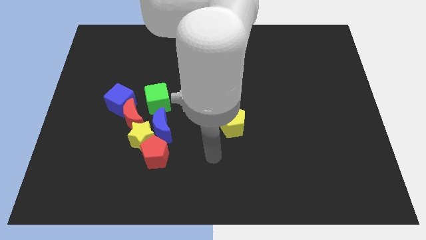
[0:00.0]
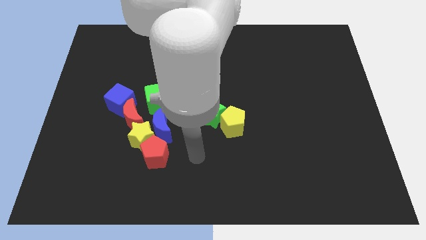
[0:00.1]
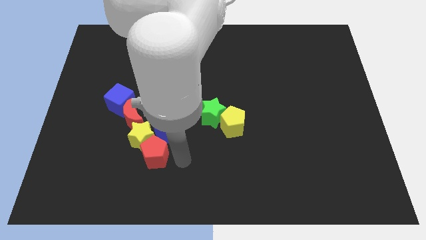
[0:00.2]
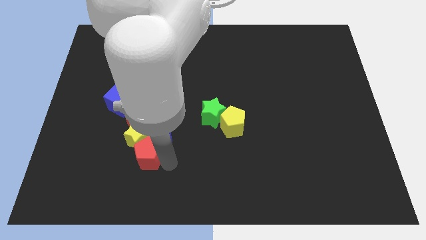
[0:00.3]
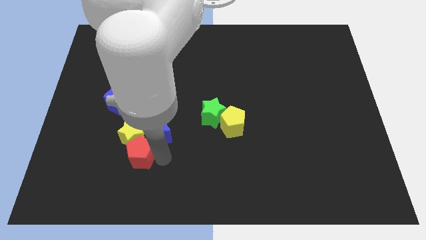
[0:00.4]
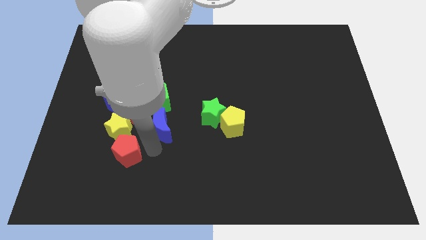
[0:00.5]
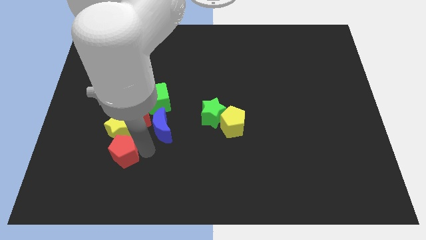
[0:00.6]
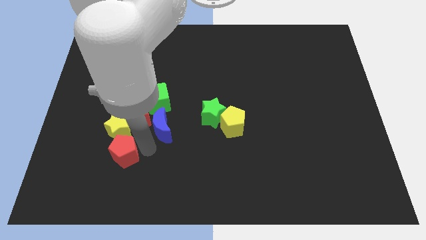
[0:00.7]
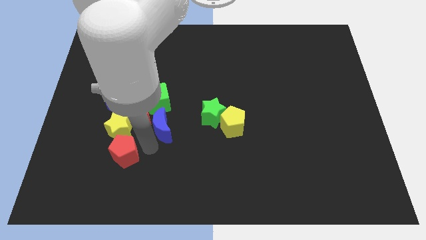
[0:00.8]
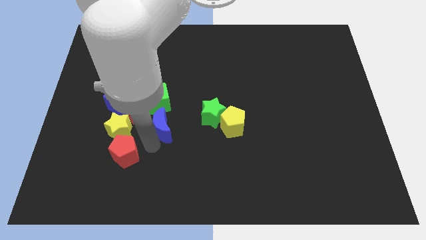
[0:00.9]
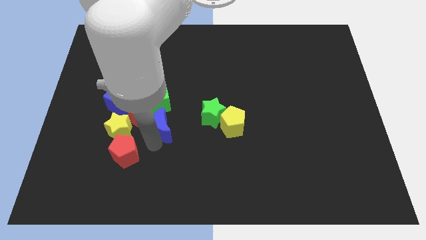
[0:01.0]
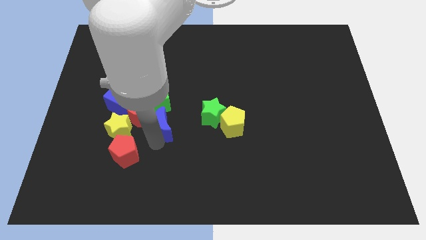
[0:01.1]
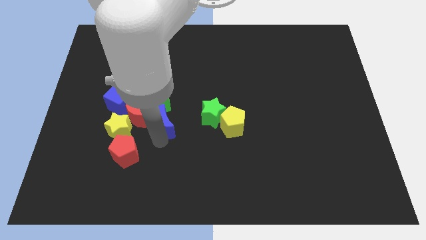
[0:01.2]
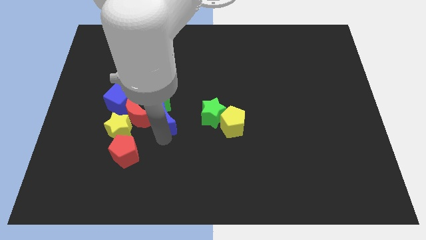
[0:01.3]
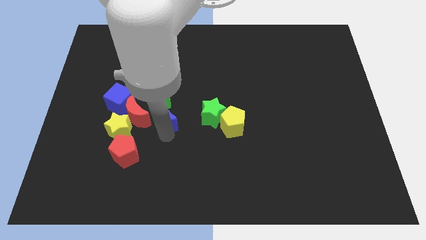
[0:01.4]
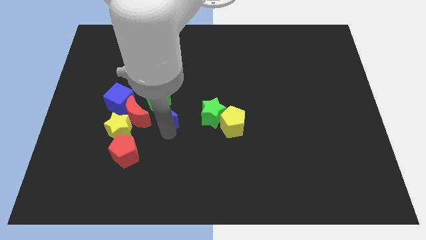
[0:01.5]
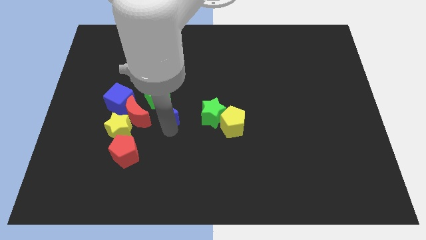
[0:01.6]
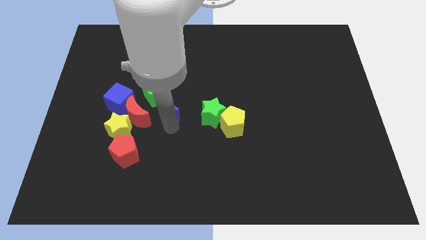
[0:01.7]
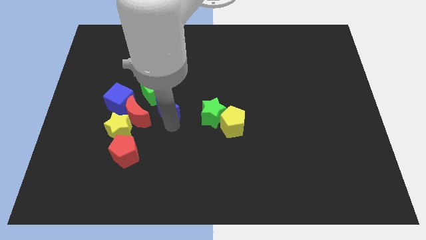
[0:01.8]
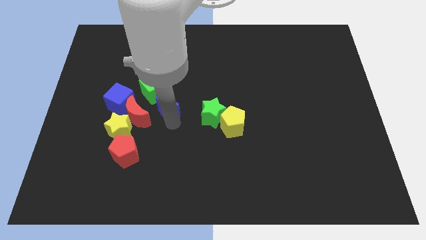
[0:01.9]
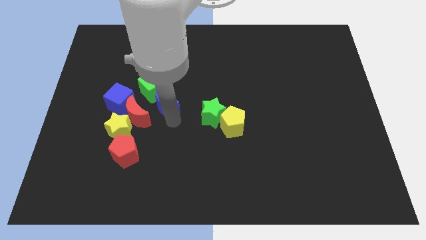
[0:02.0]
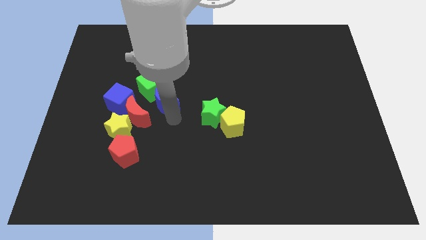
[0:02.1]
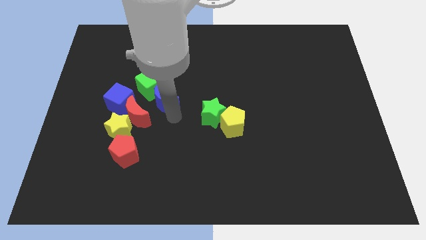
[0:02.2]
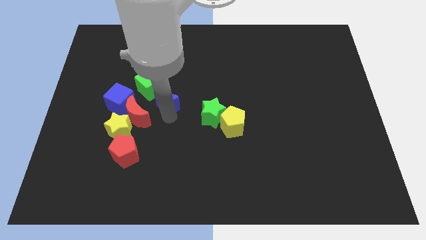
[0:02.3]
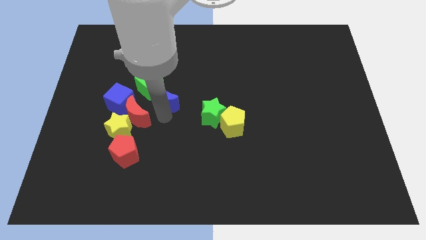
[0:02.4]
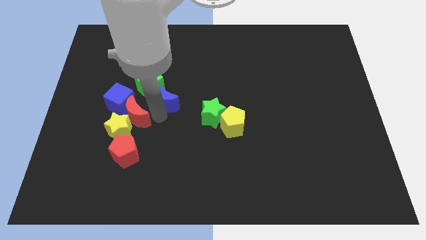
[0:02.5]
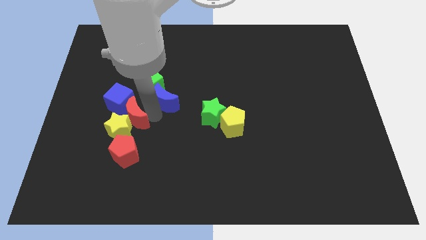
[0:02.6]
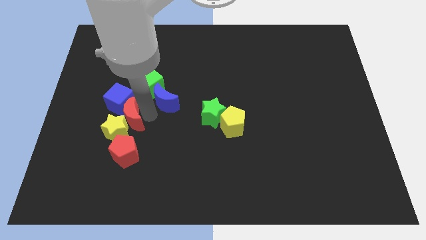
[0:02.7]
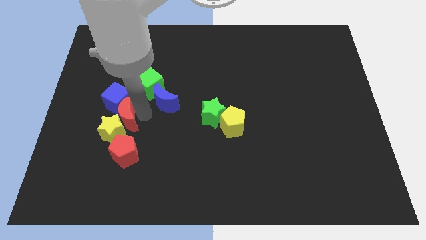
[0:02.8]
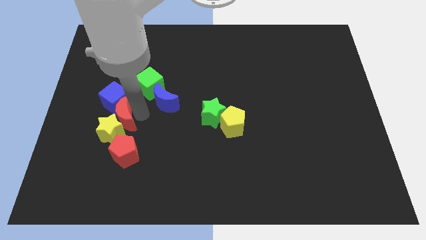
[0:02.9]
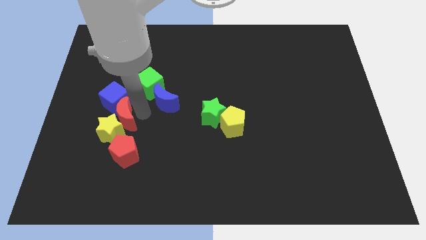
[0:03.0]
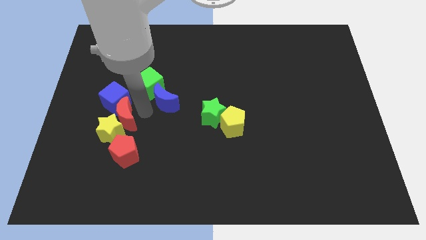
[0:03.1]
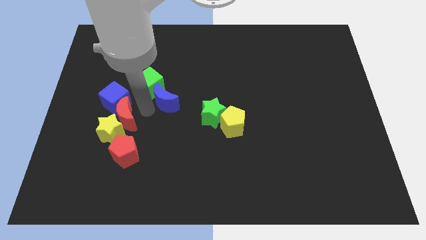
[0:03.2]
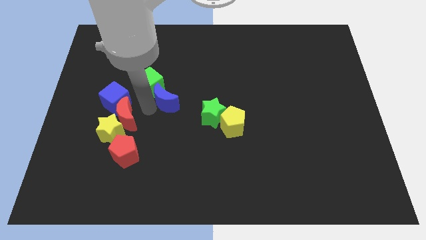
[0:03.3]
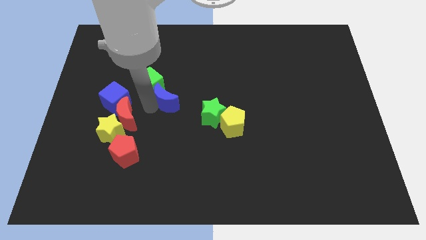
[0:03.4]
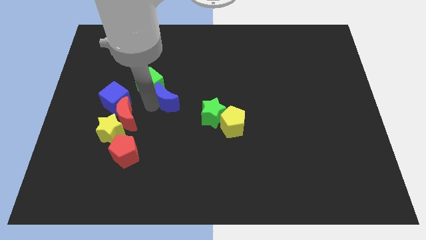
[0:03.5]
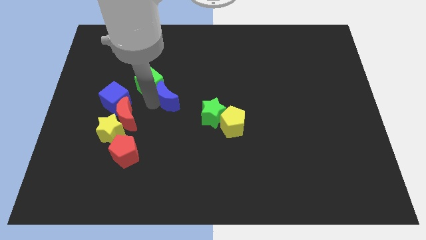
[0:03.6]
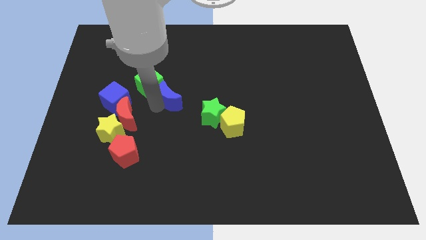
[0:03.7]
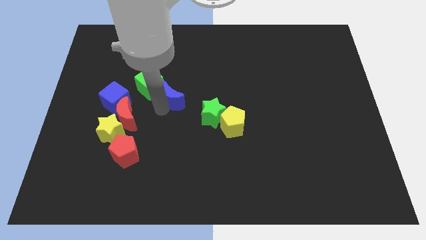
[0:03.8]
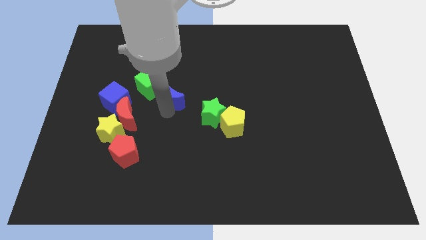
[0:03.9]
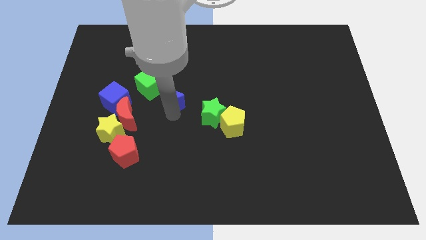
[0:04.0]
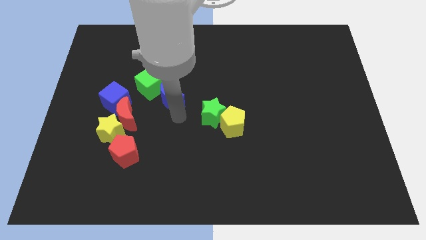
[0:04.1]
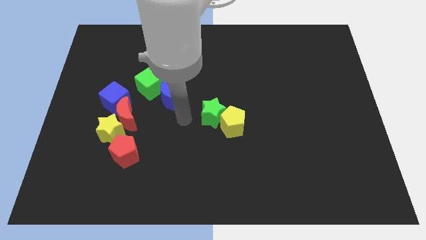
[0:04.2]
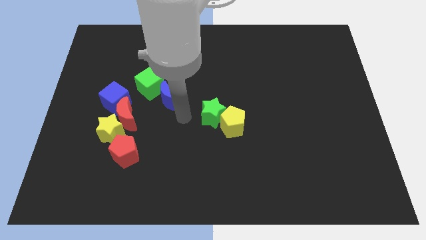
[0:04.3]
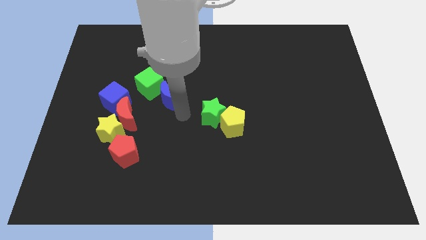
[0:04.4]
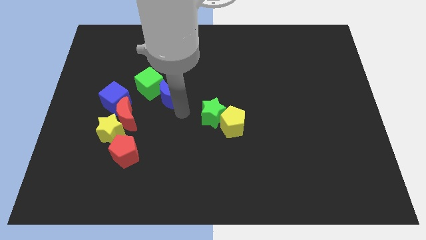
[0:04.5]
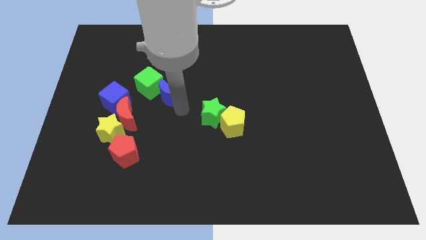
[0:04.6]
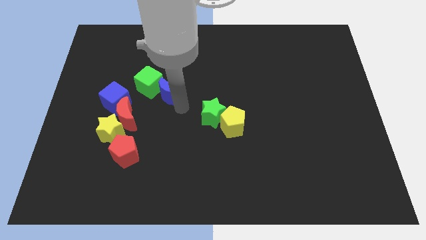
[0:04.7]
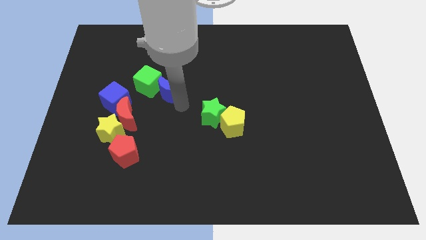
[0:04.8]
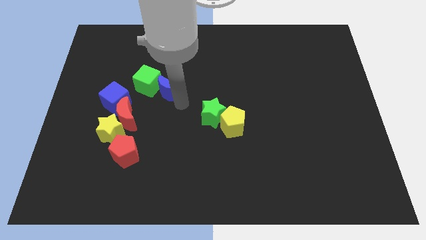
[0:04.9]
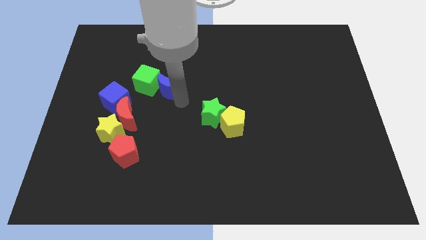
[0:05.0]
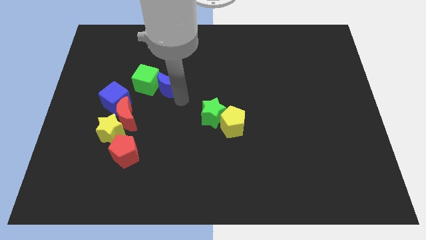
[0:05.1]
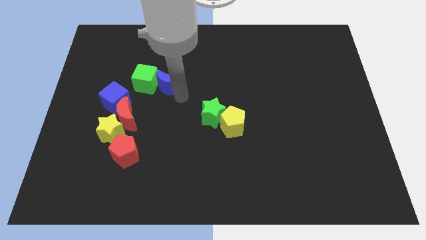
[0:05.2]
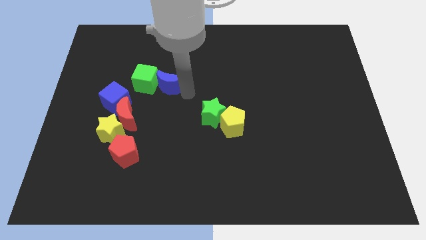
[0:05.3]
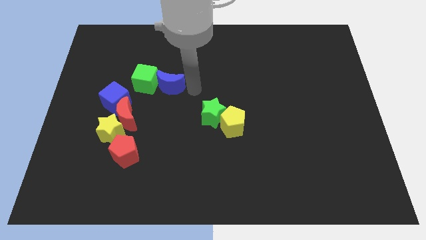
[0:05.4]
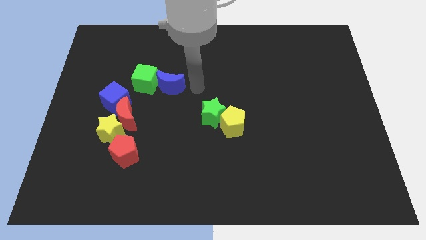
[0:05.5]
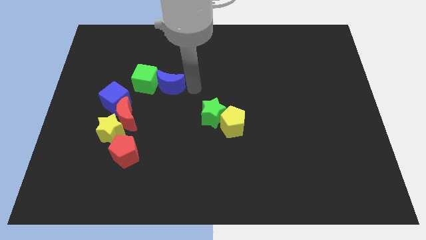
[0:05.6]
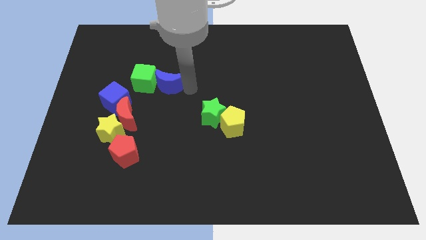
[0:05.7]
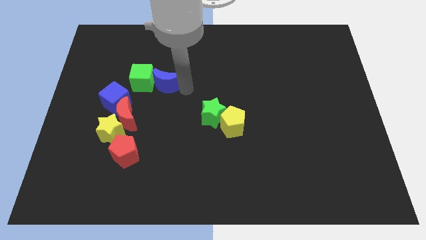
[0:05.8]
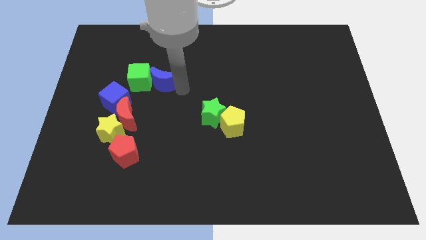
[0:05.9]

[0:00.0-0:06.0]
push the blue moon upwards and to the left a little bit

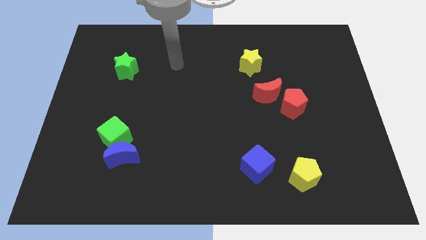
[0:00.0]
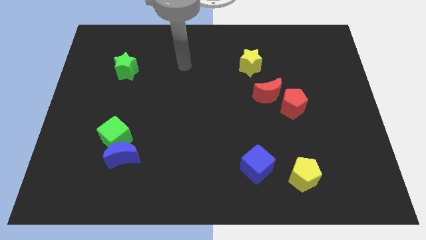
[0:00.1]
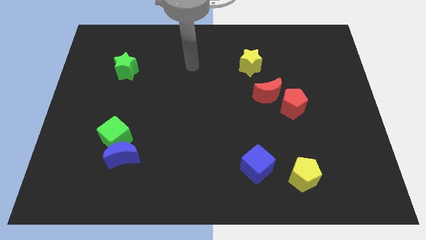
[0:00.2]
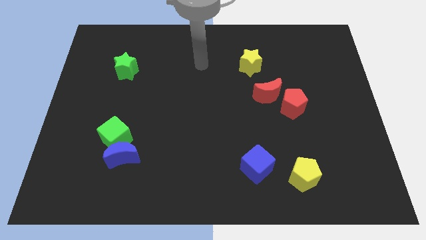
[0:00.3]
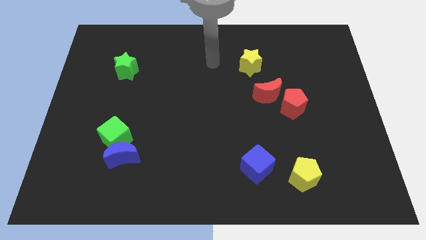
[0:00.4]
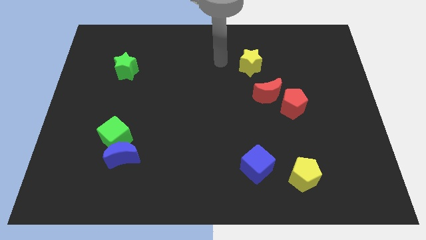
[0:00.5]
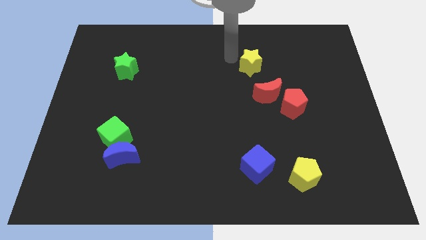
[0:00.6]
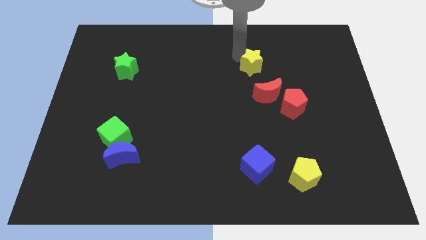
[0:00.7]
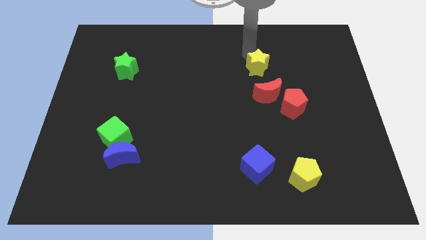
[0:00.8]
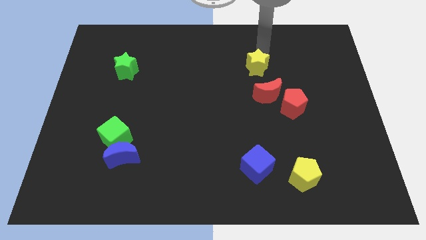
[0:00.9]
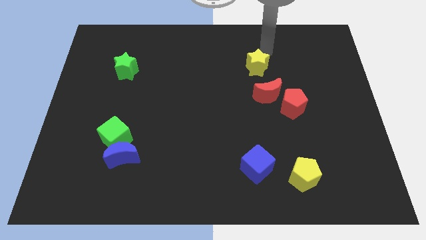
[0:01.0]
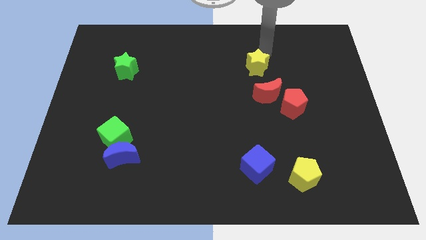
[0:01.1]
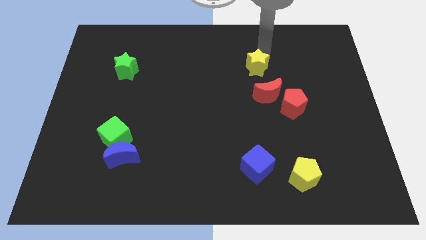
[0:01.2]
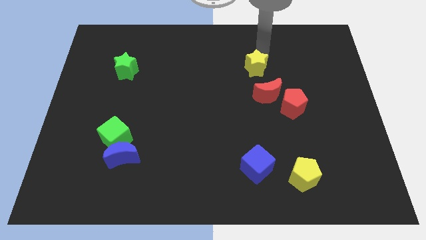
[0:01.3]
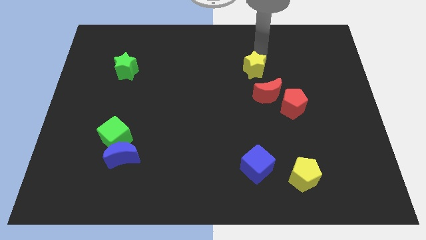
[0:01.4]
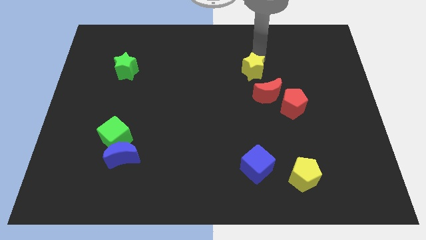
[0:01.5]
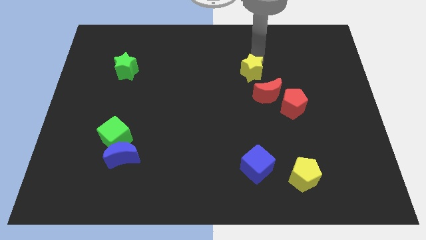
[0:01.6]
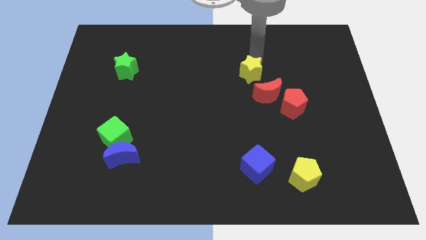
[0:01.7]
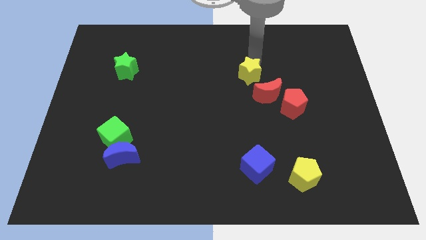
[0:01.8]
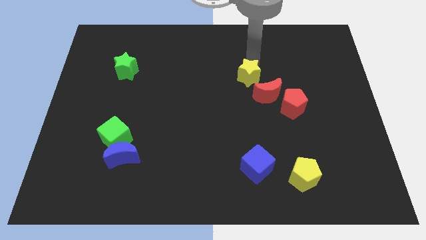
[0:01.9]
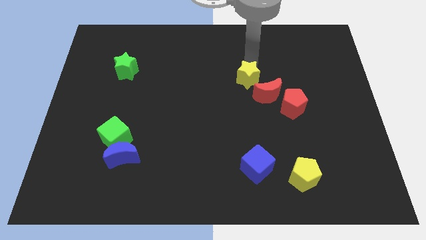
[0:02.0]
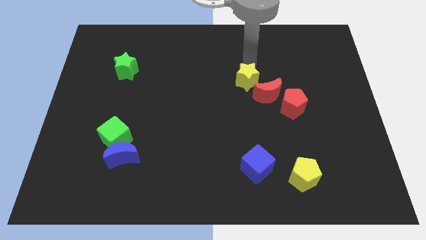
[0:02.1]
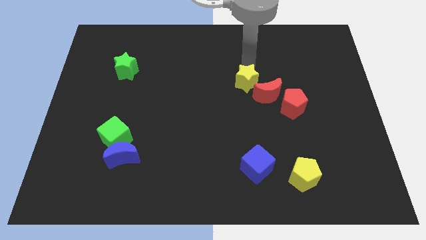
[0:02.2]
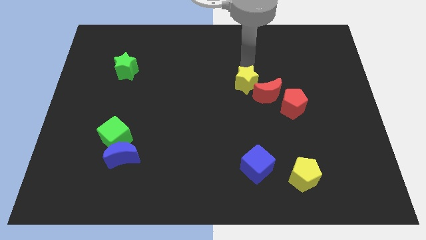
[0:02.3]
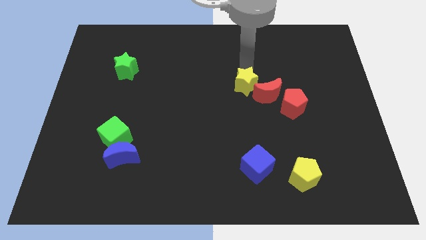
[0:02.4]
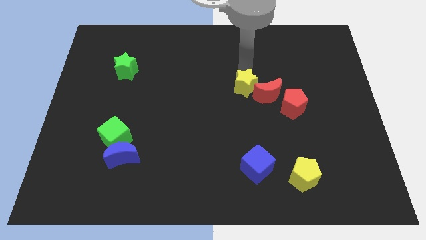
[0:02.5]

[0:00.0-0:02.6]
slide the yellow star a bit downwards
